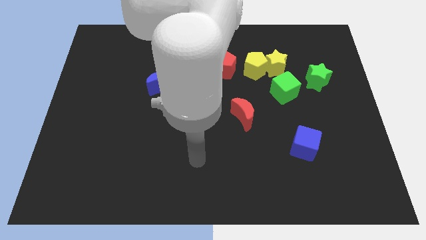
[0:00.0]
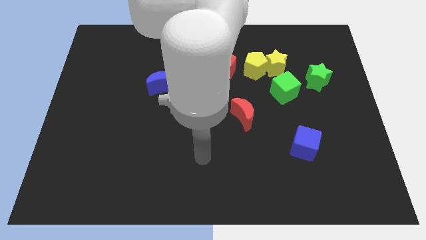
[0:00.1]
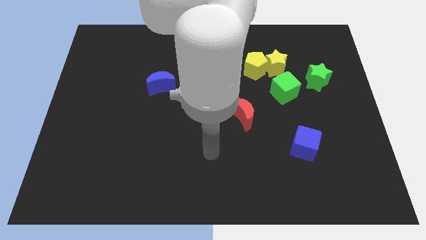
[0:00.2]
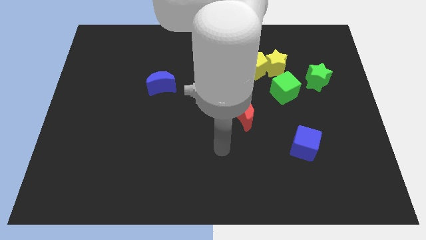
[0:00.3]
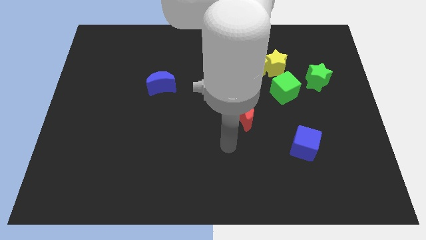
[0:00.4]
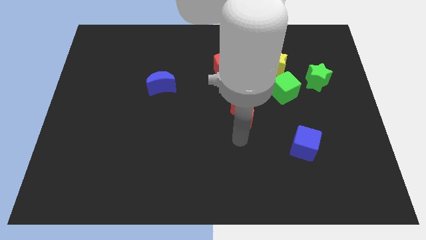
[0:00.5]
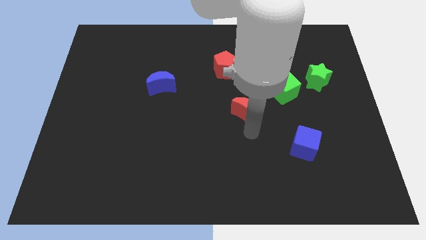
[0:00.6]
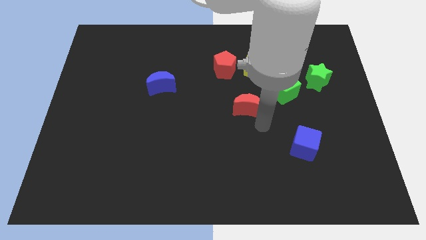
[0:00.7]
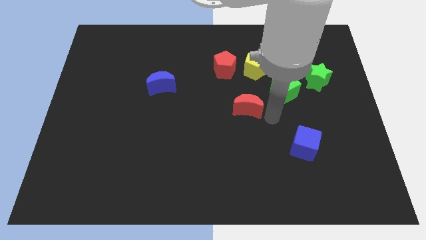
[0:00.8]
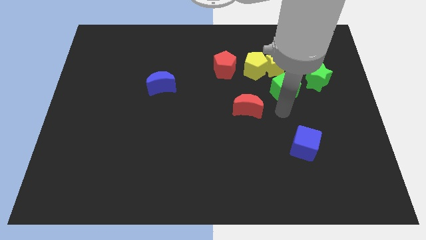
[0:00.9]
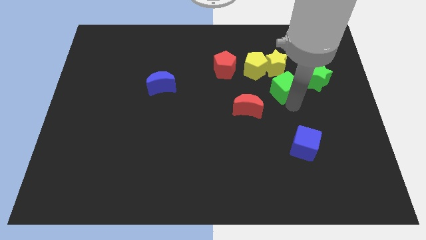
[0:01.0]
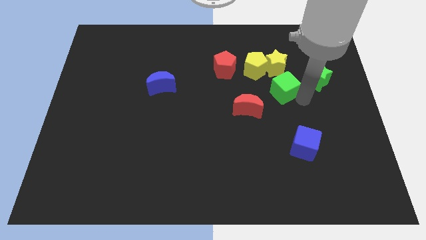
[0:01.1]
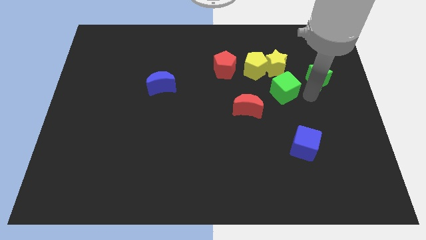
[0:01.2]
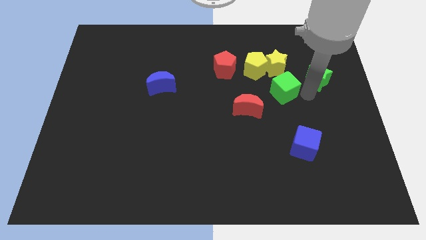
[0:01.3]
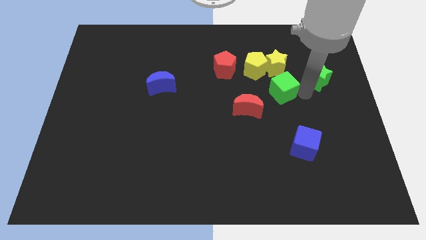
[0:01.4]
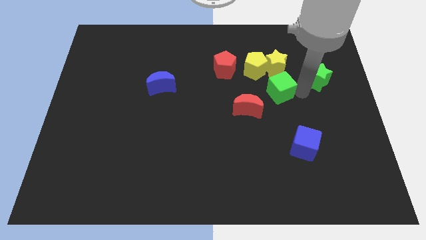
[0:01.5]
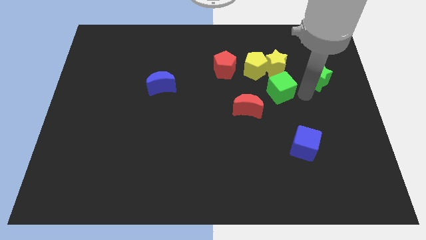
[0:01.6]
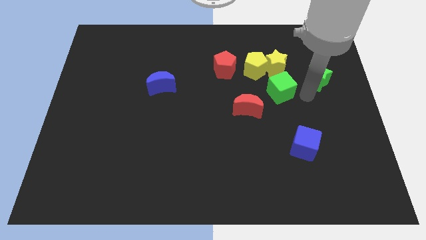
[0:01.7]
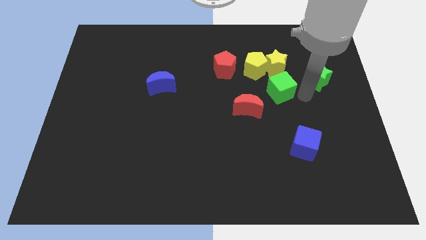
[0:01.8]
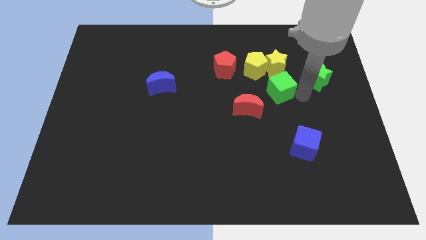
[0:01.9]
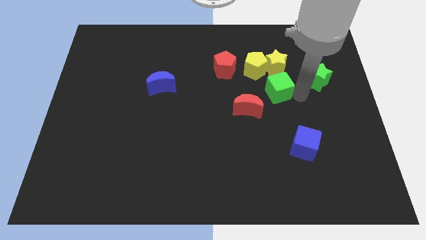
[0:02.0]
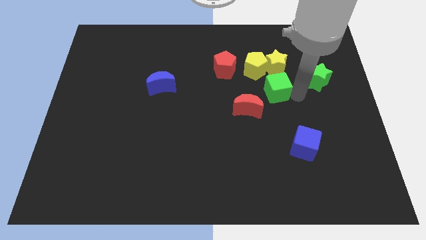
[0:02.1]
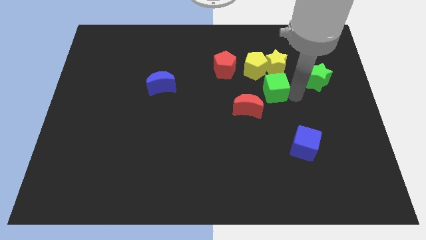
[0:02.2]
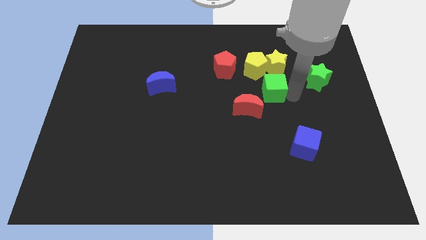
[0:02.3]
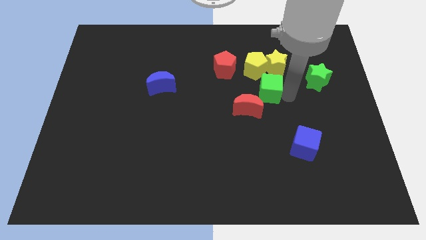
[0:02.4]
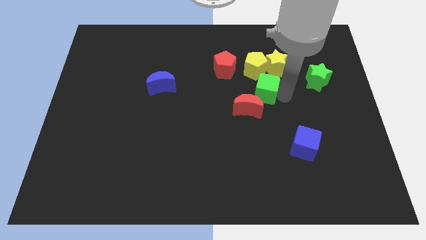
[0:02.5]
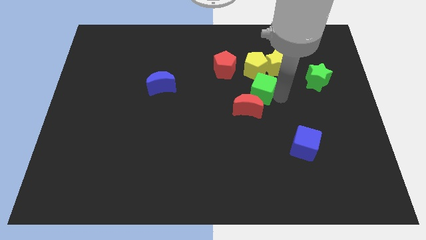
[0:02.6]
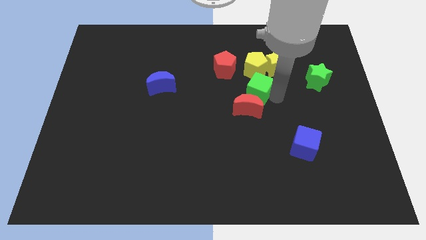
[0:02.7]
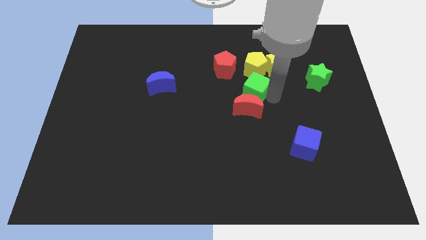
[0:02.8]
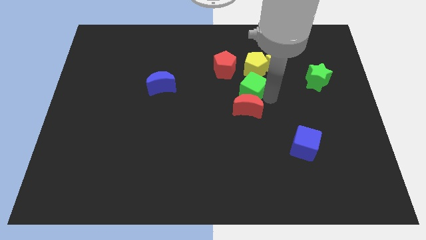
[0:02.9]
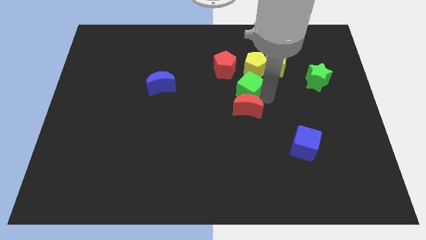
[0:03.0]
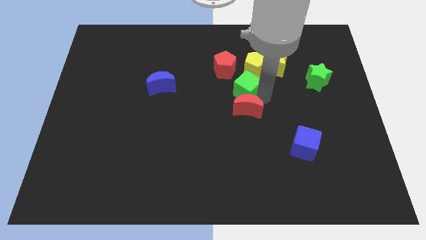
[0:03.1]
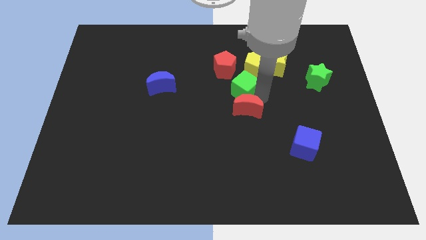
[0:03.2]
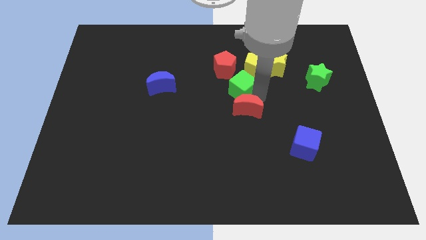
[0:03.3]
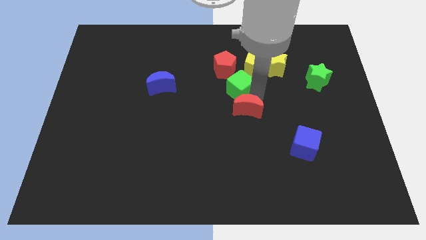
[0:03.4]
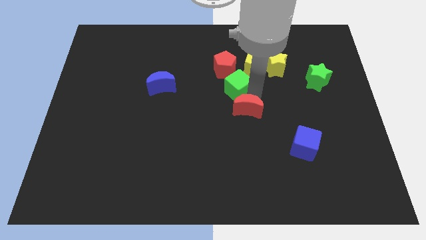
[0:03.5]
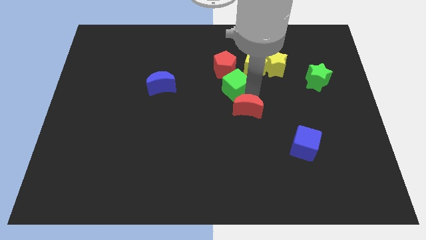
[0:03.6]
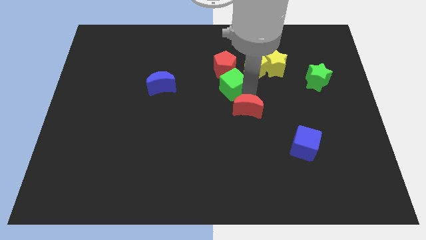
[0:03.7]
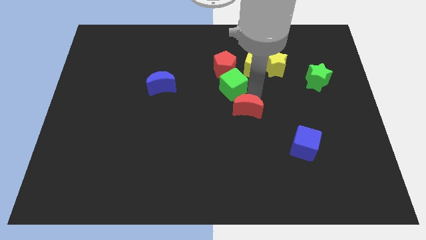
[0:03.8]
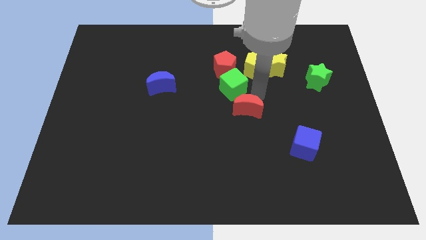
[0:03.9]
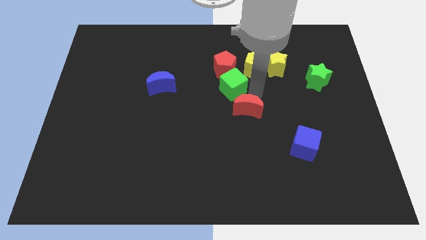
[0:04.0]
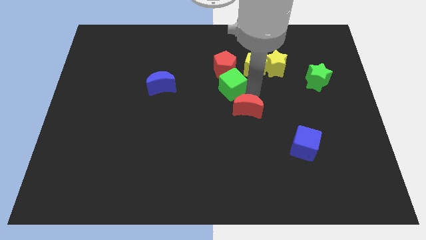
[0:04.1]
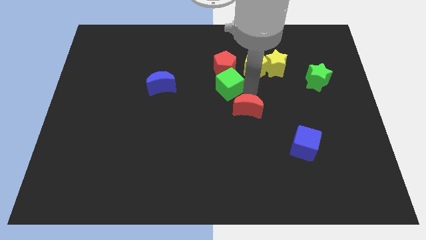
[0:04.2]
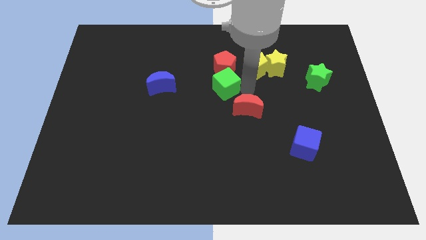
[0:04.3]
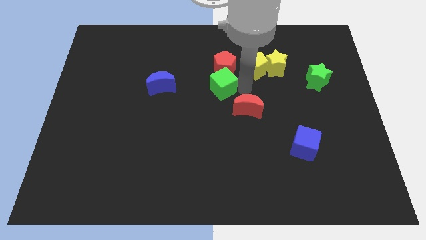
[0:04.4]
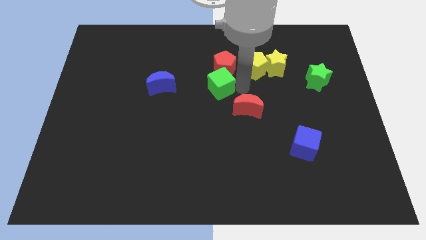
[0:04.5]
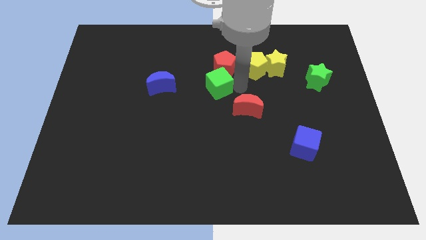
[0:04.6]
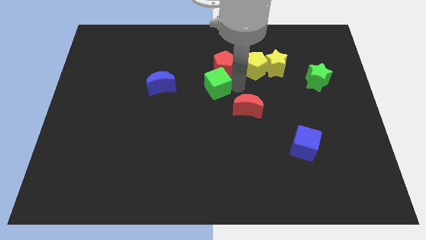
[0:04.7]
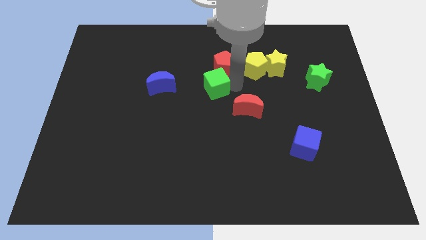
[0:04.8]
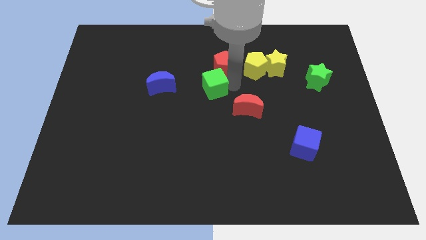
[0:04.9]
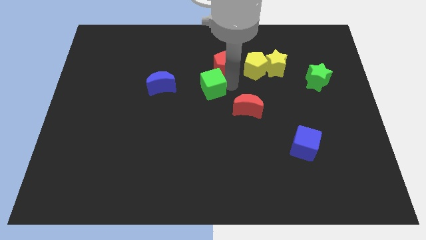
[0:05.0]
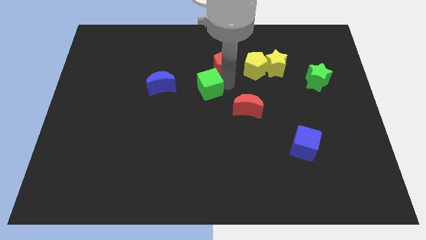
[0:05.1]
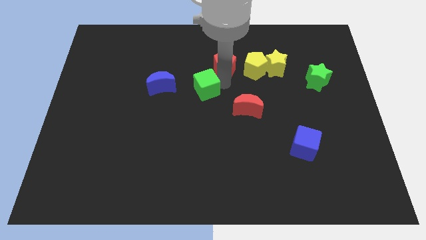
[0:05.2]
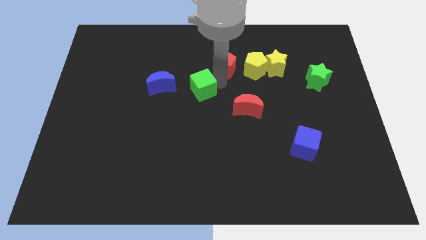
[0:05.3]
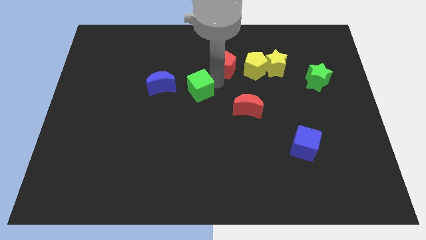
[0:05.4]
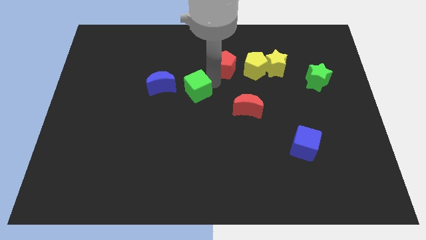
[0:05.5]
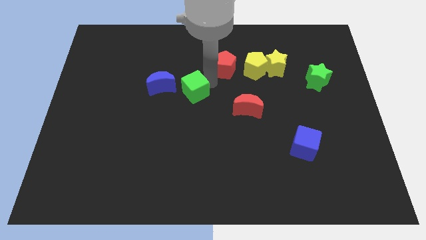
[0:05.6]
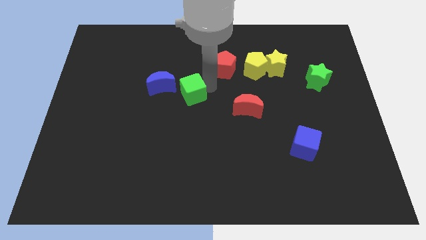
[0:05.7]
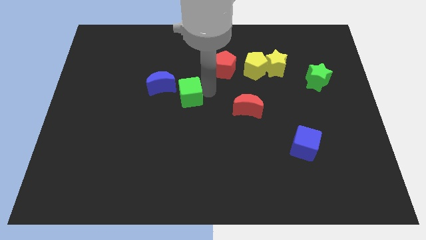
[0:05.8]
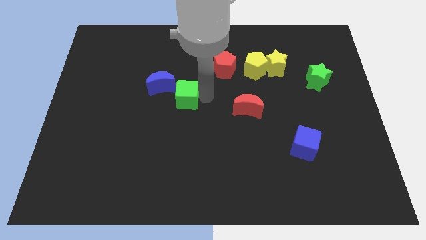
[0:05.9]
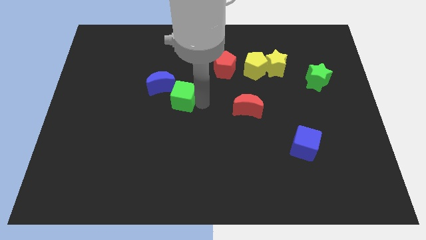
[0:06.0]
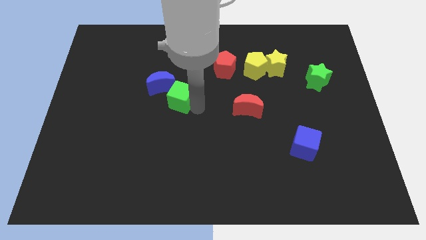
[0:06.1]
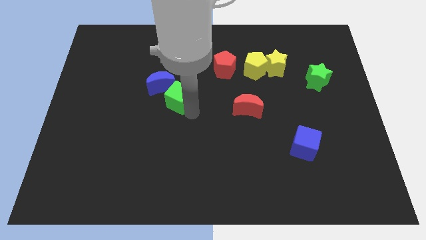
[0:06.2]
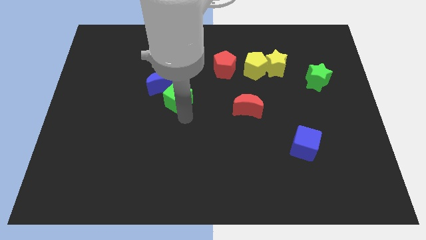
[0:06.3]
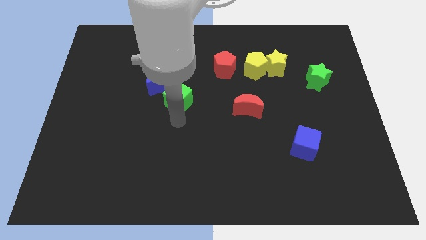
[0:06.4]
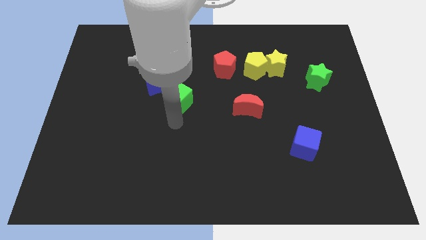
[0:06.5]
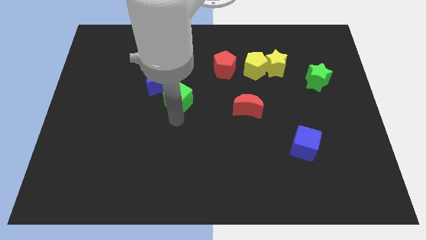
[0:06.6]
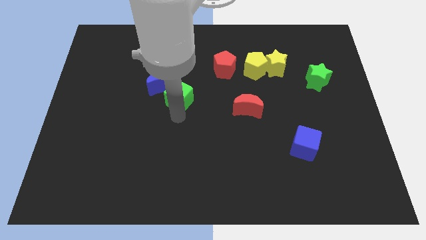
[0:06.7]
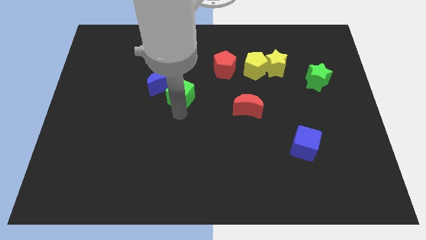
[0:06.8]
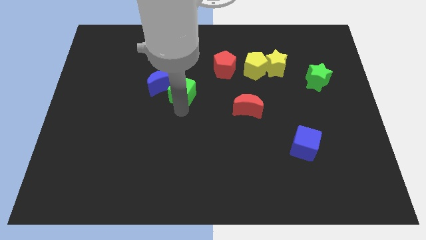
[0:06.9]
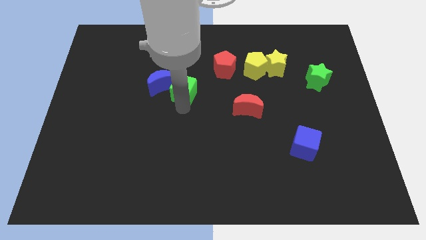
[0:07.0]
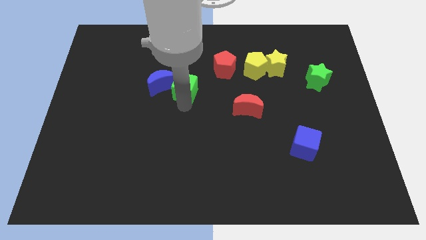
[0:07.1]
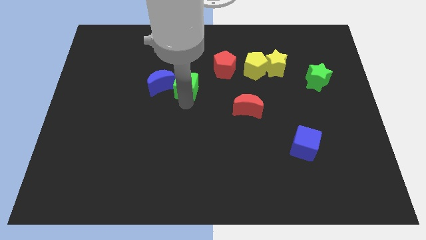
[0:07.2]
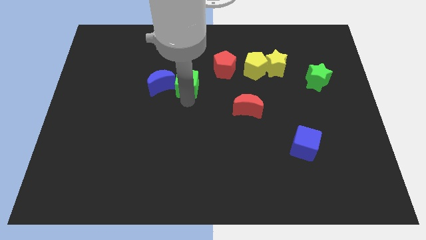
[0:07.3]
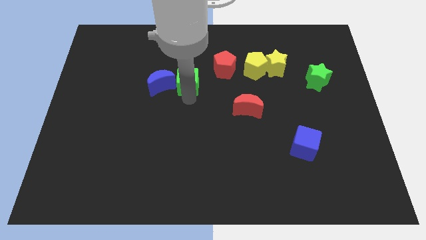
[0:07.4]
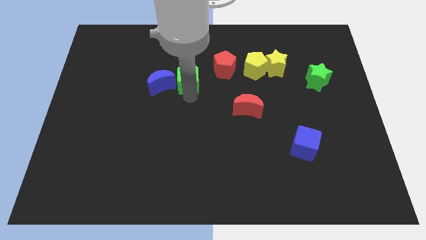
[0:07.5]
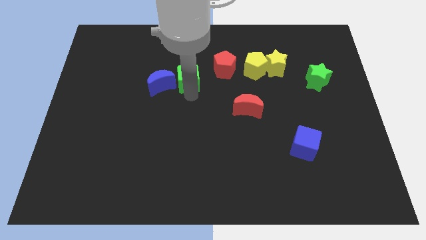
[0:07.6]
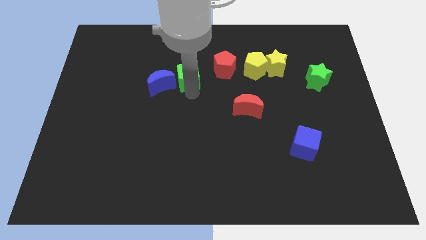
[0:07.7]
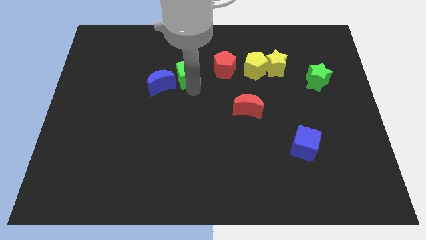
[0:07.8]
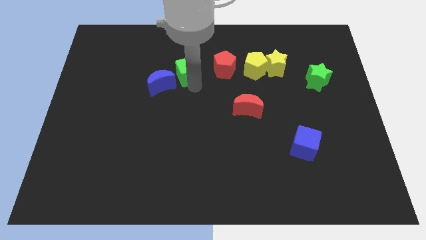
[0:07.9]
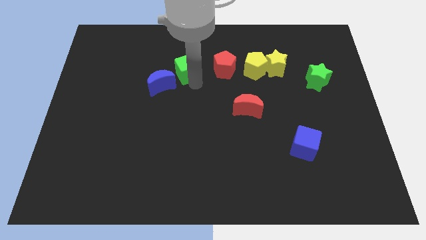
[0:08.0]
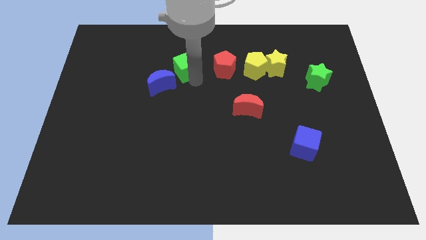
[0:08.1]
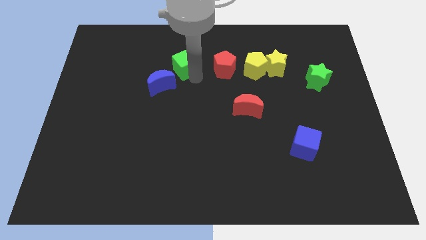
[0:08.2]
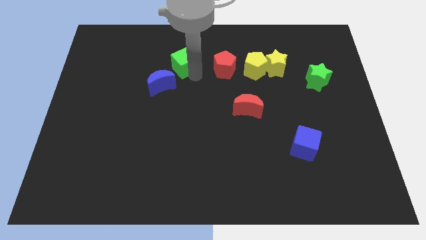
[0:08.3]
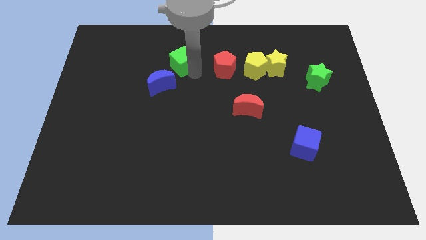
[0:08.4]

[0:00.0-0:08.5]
push the green cube to the top of the blue moon
